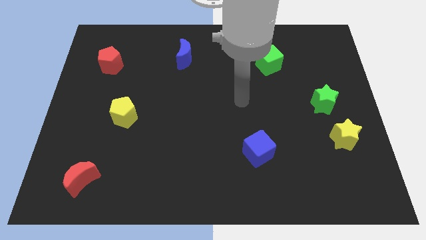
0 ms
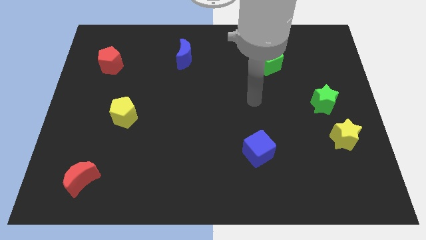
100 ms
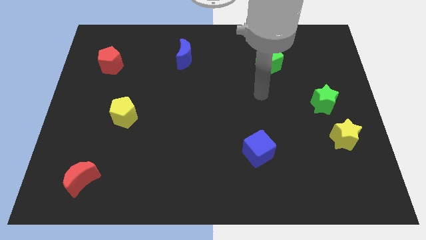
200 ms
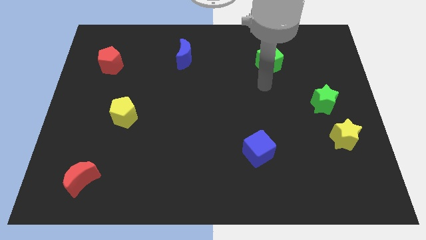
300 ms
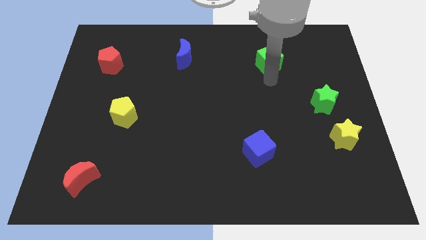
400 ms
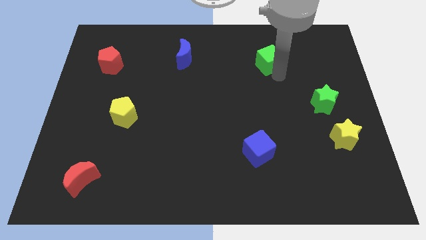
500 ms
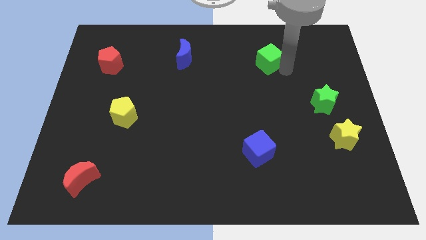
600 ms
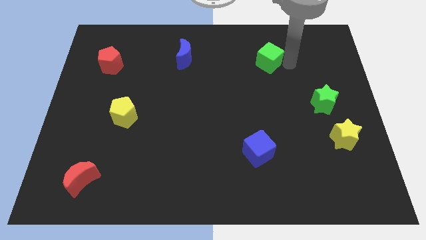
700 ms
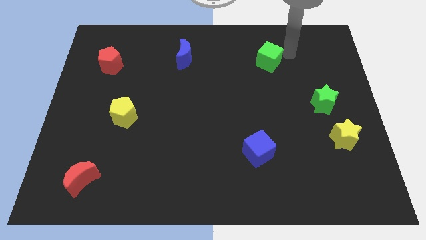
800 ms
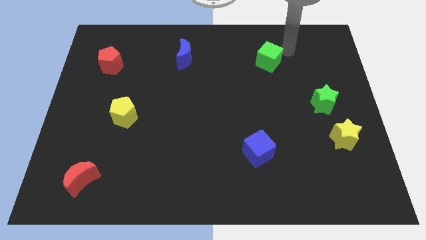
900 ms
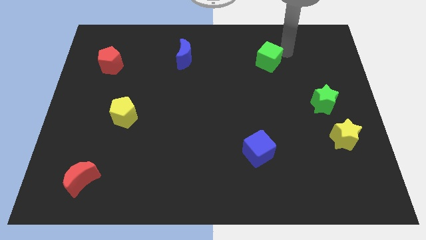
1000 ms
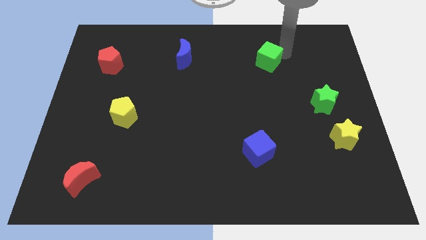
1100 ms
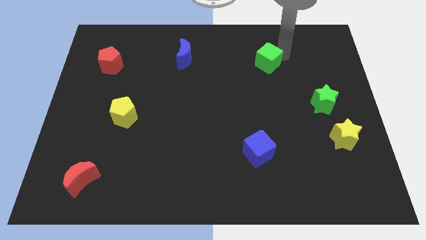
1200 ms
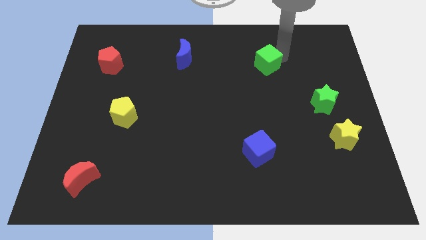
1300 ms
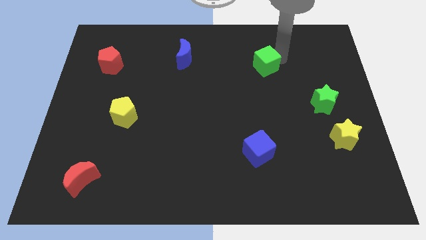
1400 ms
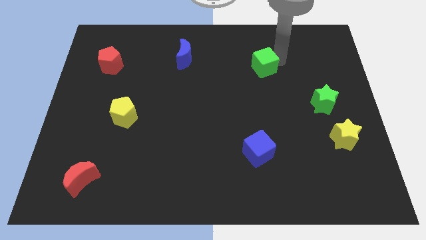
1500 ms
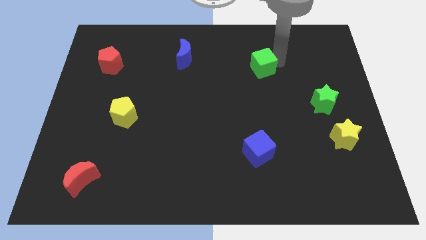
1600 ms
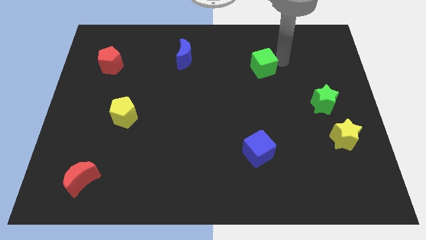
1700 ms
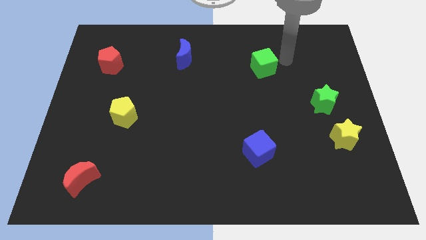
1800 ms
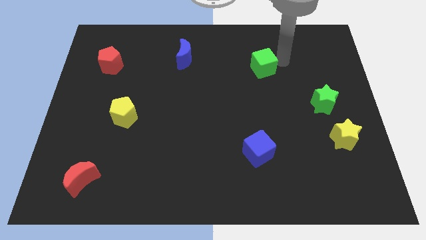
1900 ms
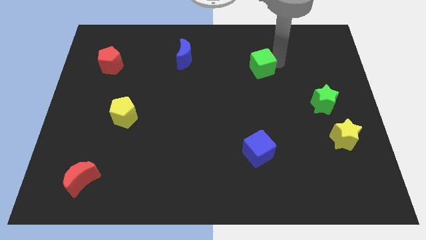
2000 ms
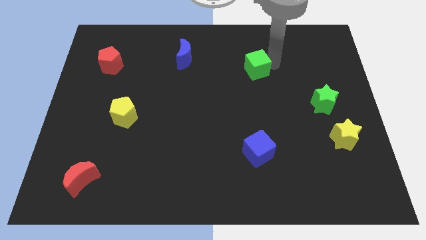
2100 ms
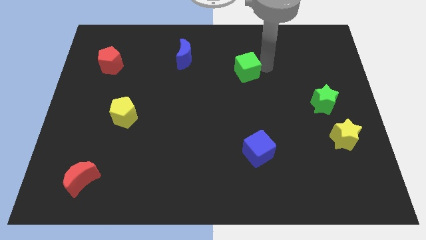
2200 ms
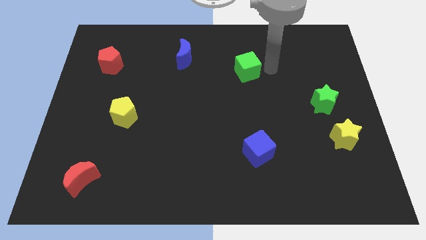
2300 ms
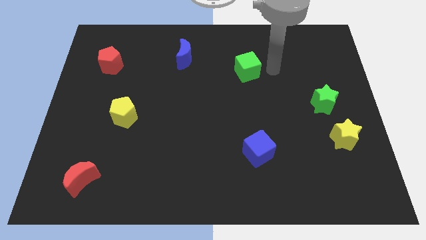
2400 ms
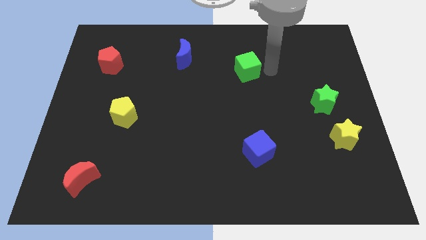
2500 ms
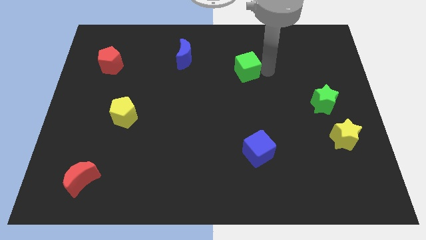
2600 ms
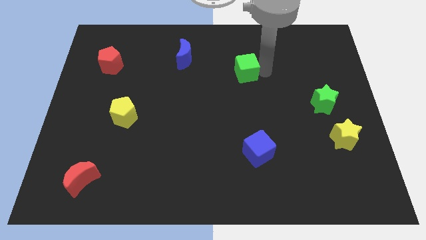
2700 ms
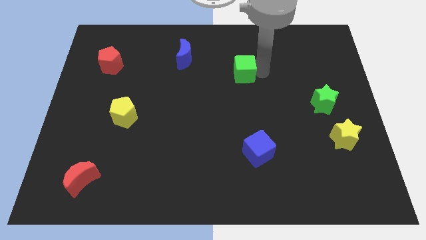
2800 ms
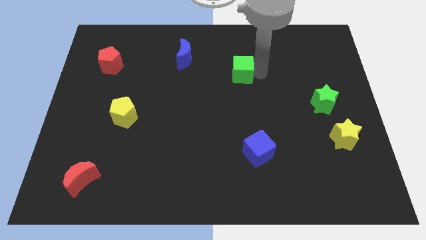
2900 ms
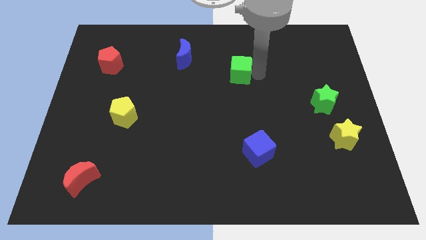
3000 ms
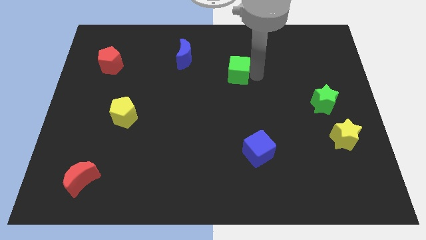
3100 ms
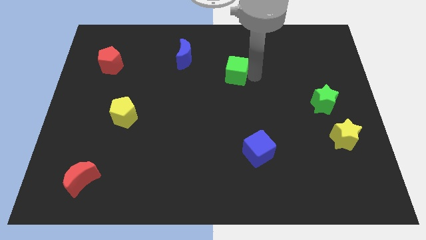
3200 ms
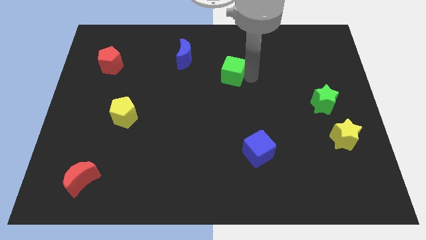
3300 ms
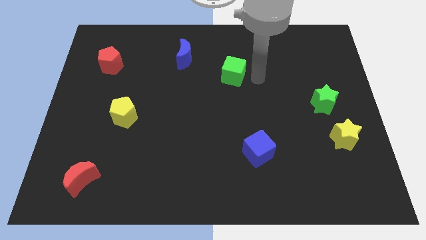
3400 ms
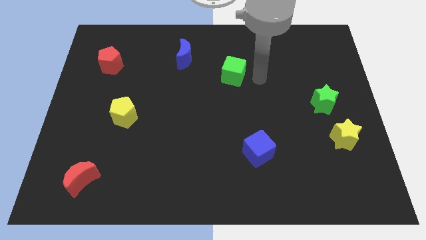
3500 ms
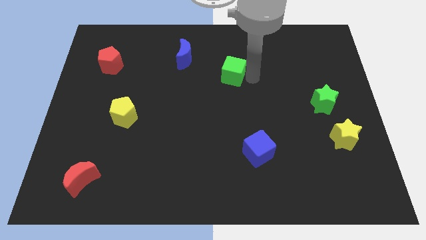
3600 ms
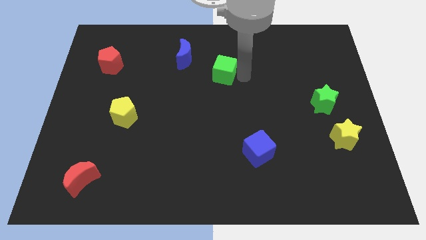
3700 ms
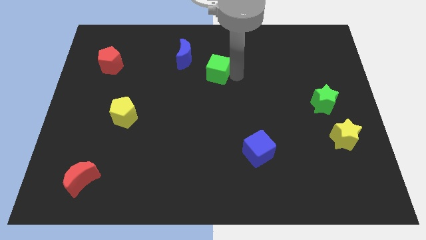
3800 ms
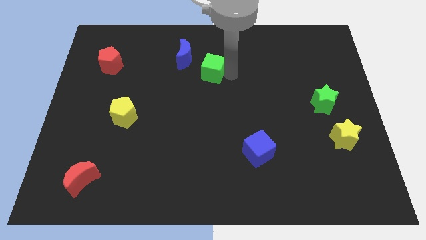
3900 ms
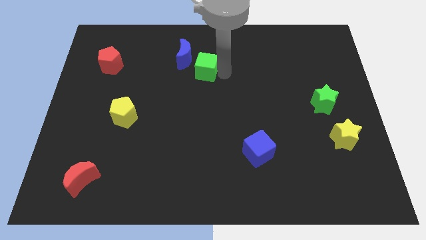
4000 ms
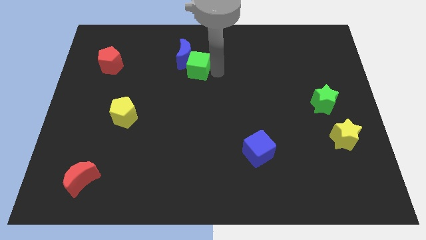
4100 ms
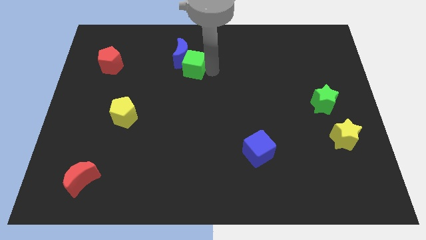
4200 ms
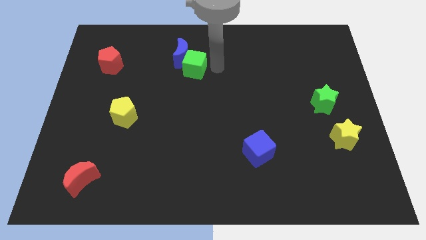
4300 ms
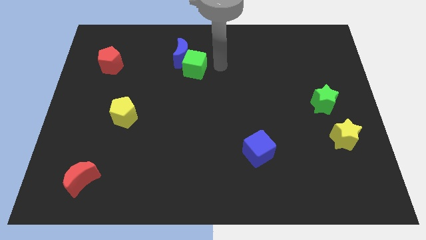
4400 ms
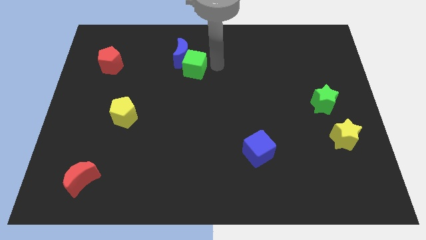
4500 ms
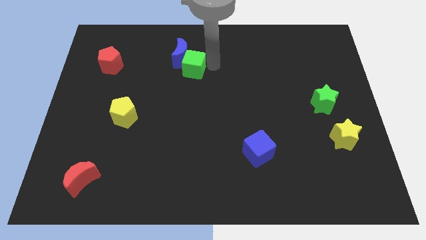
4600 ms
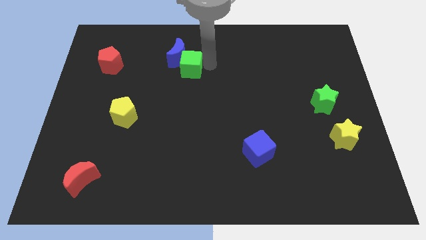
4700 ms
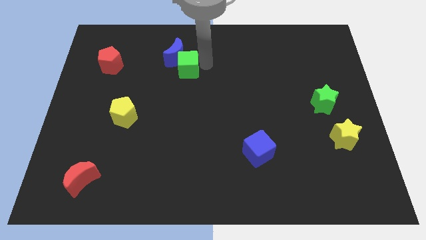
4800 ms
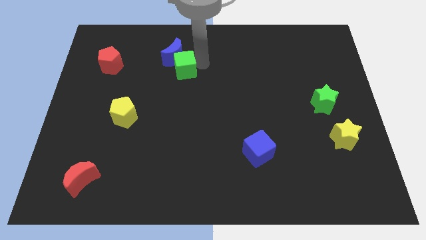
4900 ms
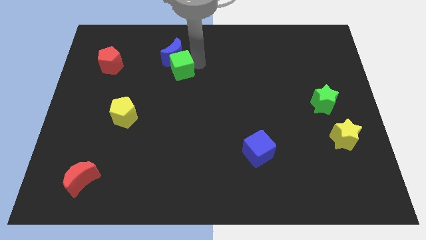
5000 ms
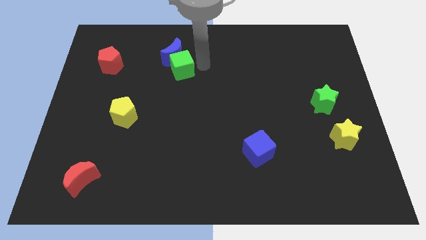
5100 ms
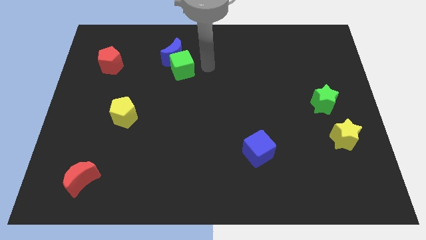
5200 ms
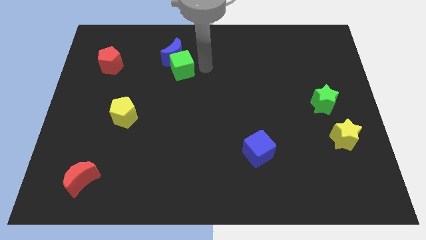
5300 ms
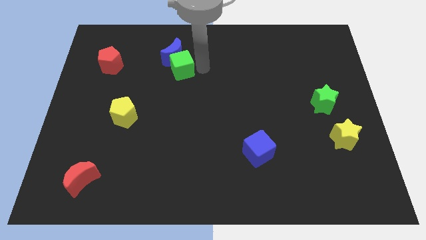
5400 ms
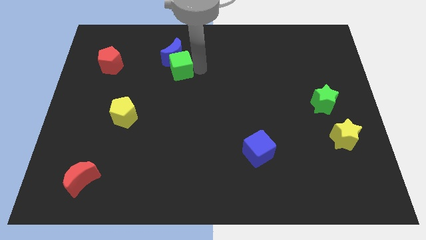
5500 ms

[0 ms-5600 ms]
slide the green cube to the bottom left side of the blue moon

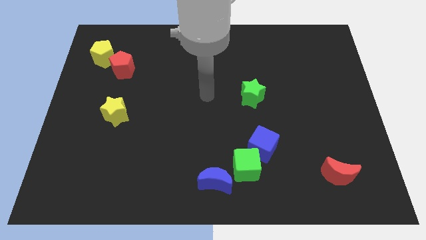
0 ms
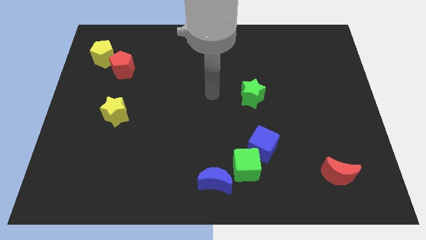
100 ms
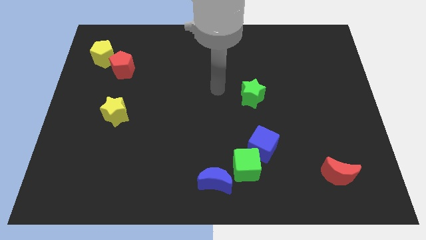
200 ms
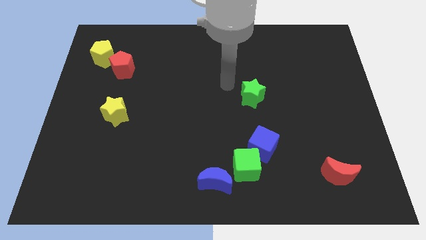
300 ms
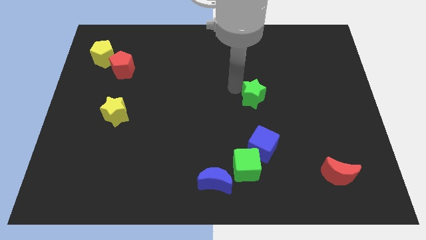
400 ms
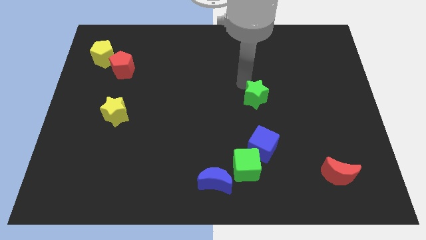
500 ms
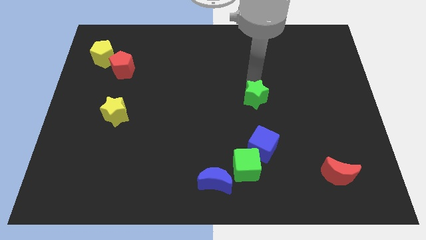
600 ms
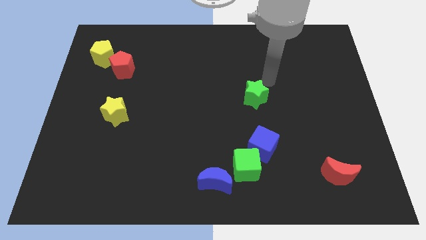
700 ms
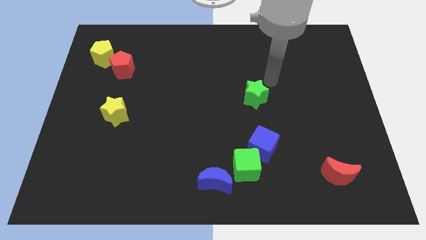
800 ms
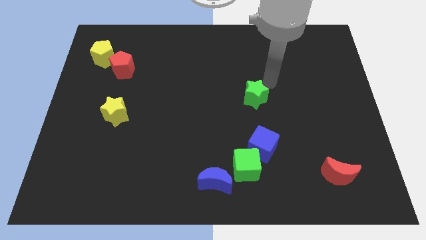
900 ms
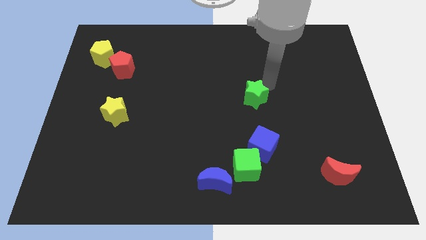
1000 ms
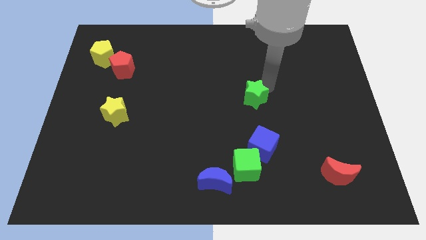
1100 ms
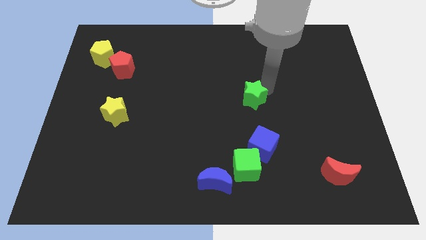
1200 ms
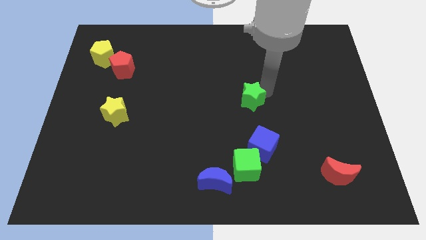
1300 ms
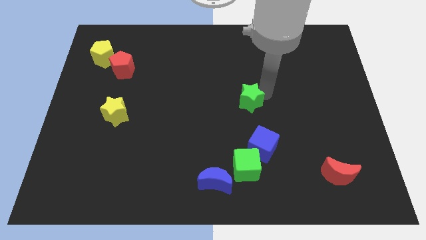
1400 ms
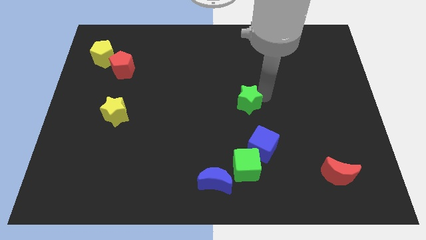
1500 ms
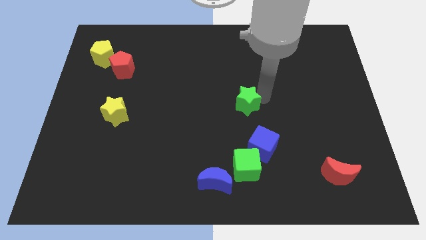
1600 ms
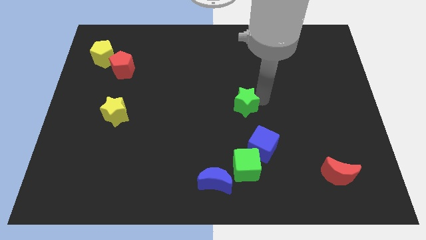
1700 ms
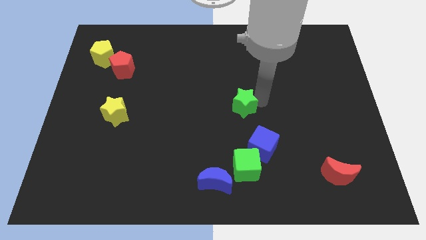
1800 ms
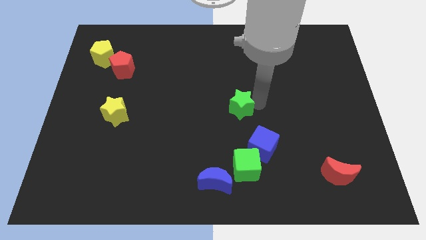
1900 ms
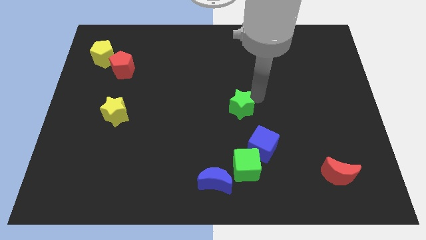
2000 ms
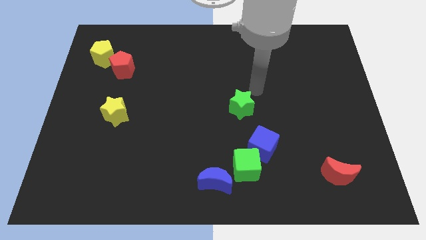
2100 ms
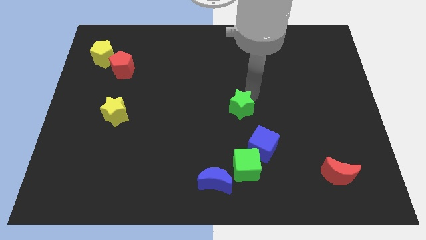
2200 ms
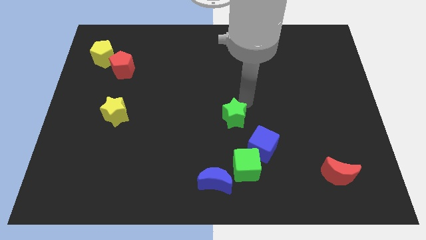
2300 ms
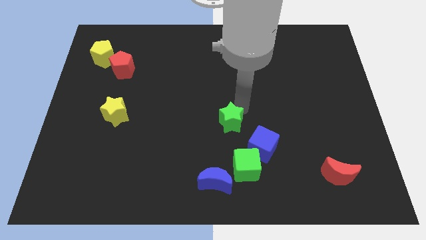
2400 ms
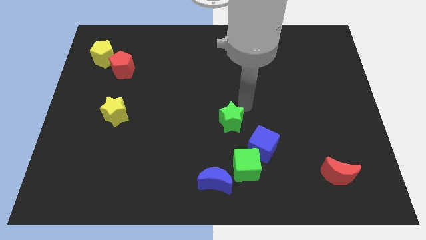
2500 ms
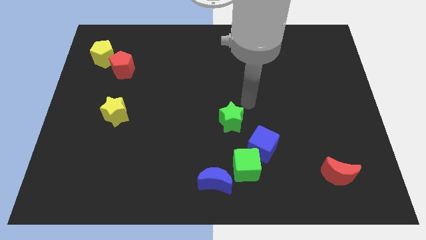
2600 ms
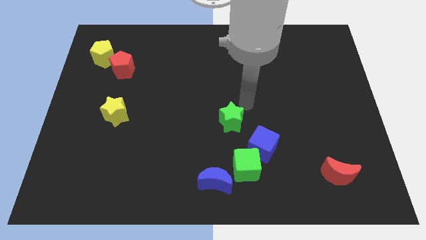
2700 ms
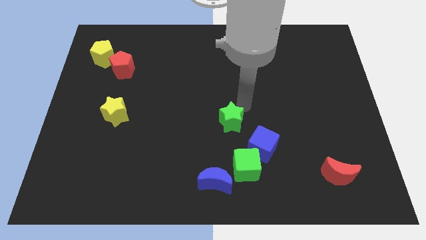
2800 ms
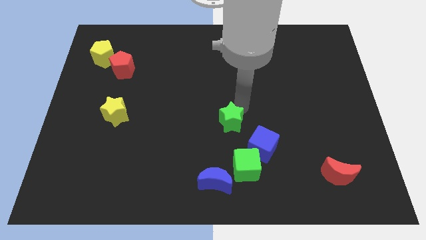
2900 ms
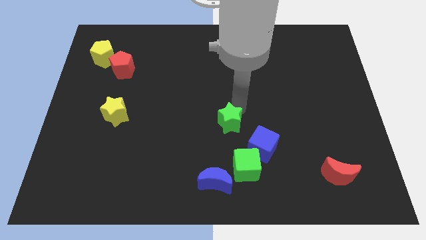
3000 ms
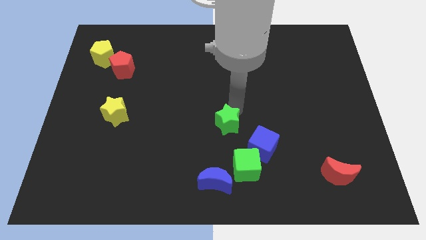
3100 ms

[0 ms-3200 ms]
put the green star to the top side of the blue moon
